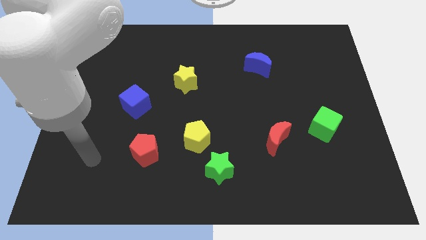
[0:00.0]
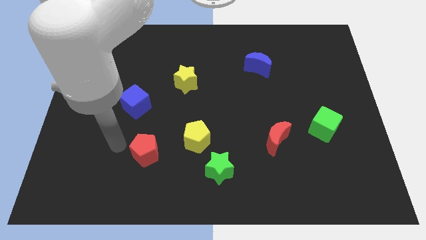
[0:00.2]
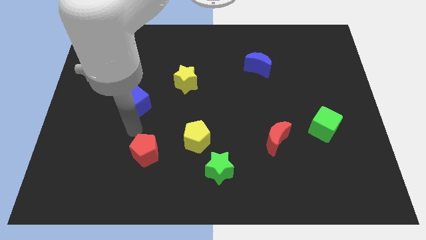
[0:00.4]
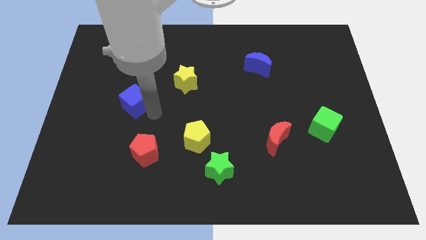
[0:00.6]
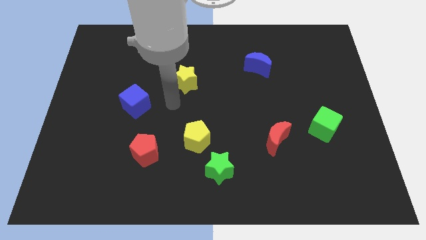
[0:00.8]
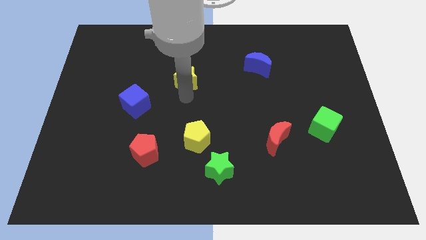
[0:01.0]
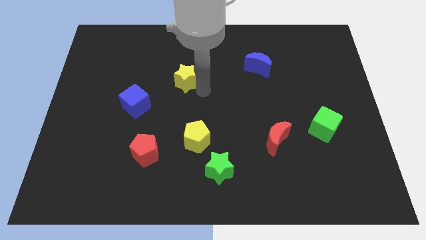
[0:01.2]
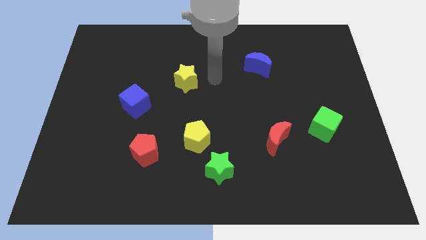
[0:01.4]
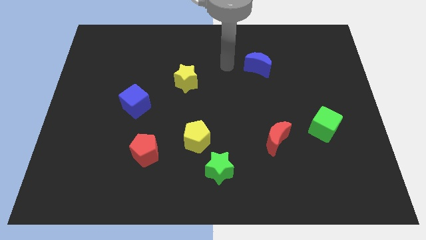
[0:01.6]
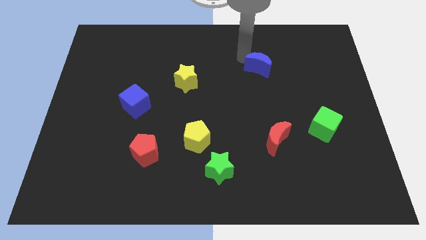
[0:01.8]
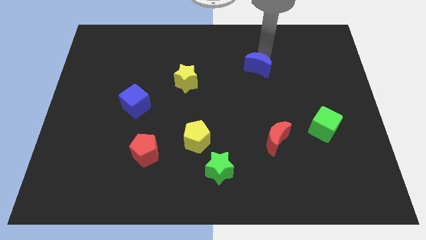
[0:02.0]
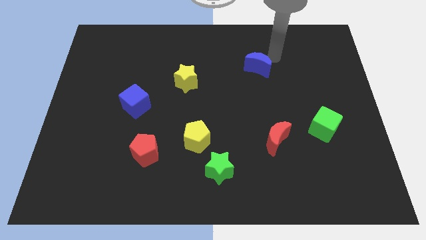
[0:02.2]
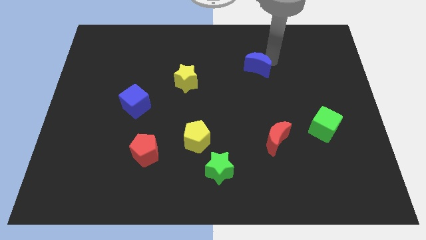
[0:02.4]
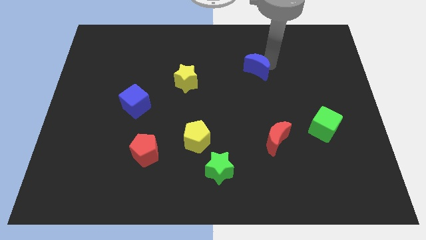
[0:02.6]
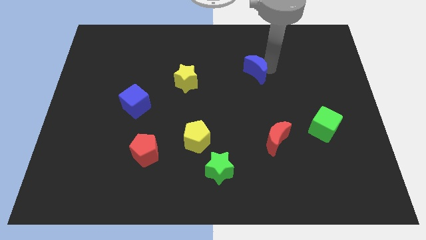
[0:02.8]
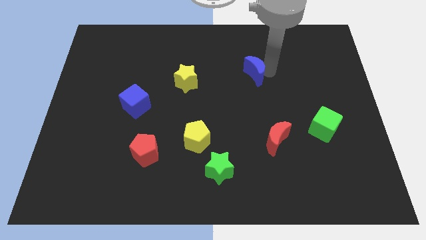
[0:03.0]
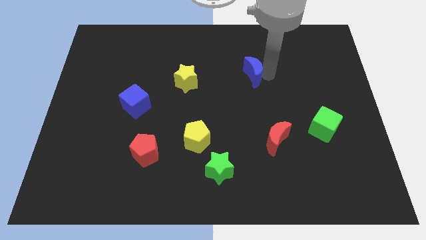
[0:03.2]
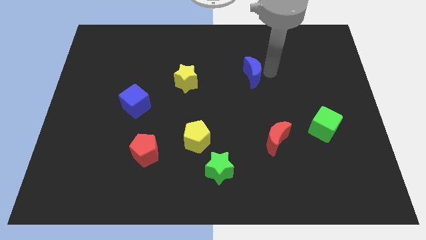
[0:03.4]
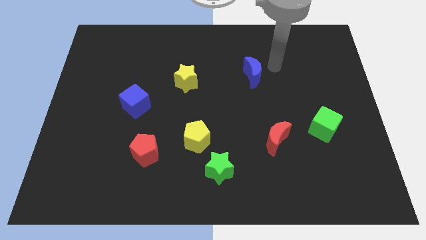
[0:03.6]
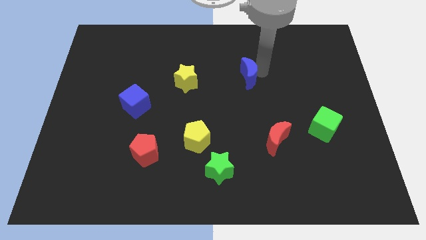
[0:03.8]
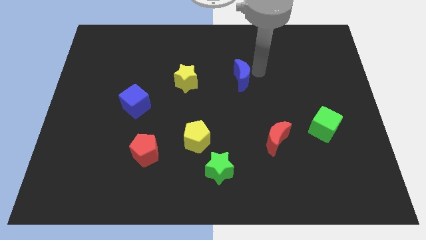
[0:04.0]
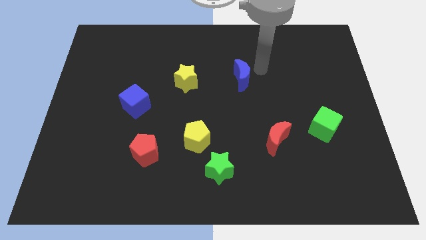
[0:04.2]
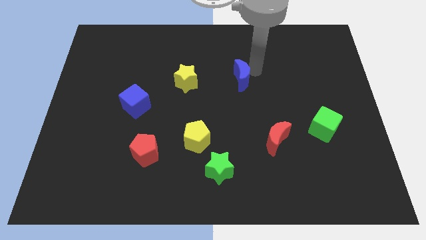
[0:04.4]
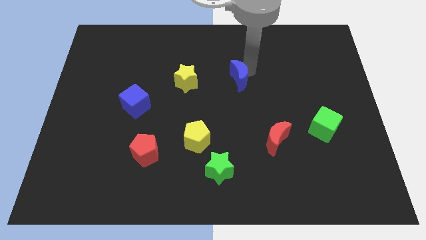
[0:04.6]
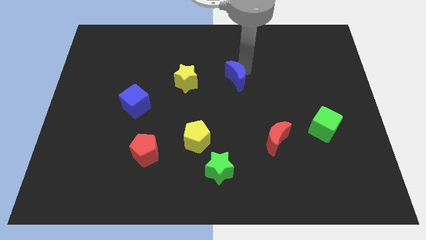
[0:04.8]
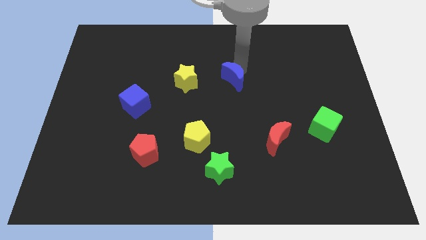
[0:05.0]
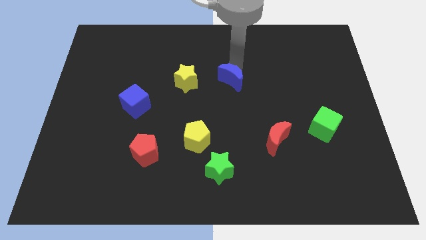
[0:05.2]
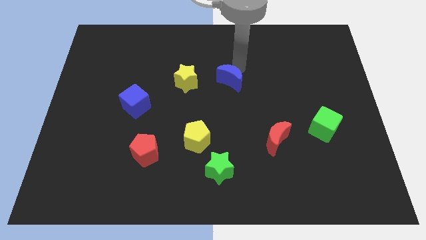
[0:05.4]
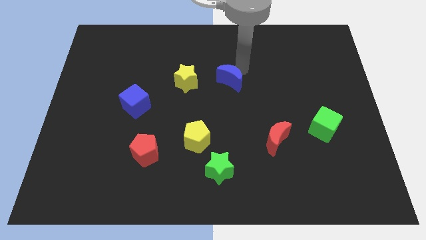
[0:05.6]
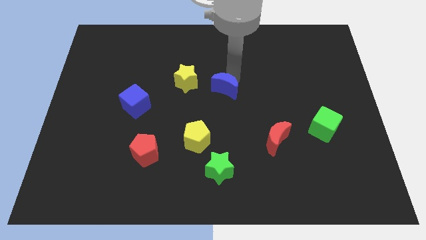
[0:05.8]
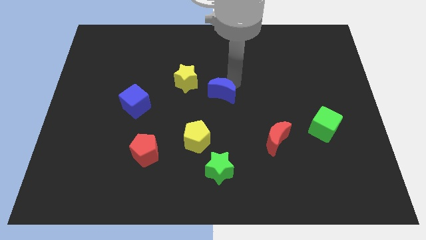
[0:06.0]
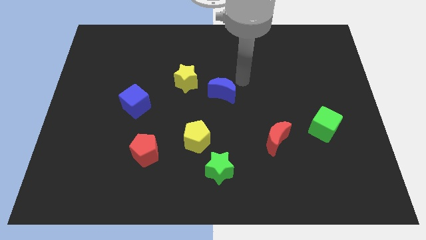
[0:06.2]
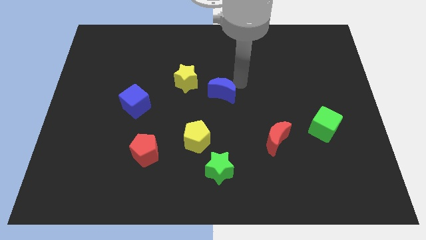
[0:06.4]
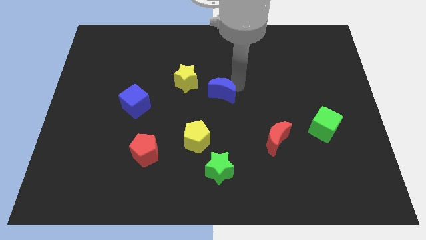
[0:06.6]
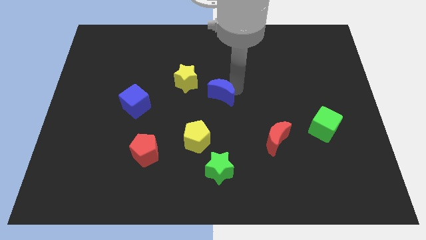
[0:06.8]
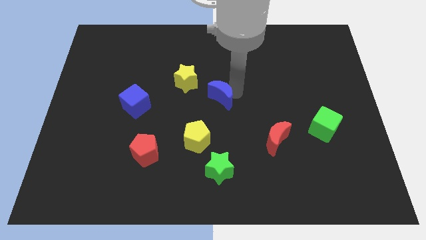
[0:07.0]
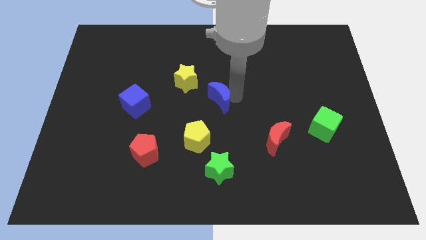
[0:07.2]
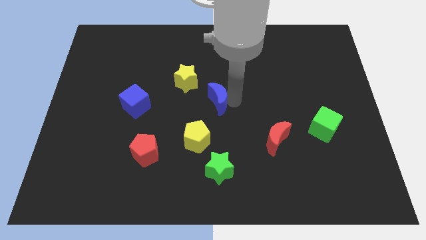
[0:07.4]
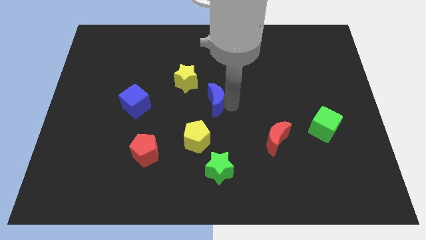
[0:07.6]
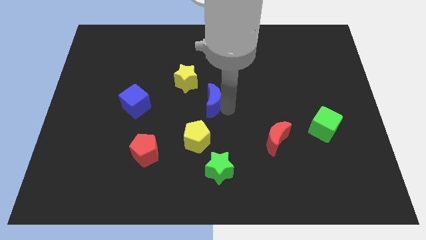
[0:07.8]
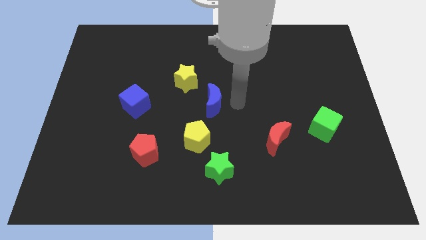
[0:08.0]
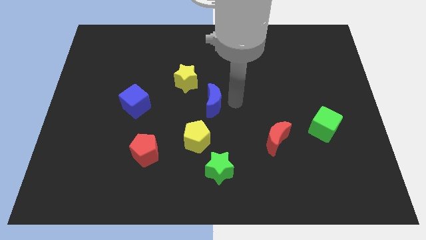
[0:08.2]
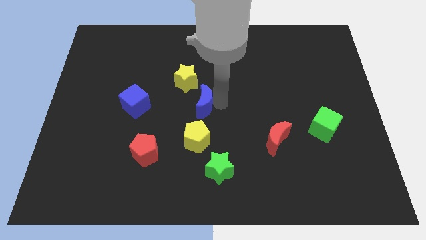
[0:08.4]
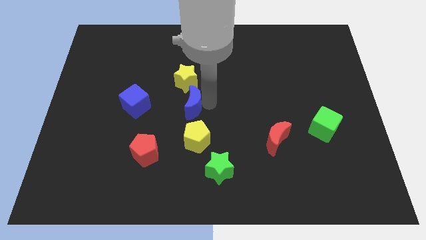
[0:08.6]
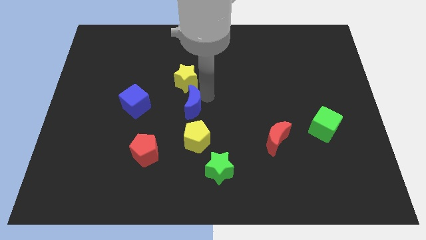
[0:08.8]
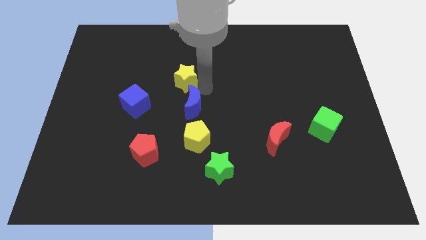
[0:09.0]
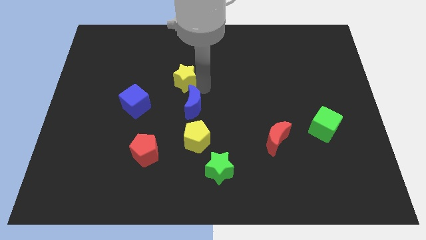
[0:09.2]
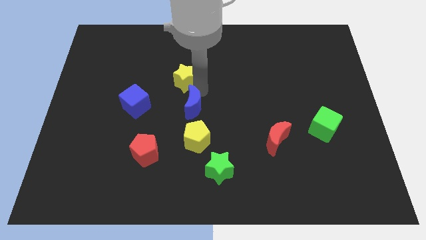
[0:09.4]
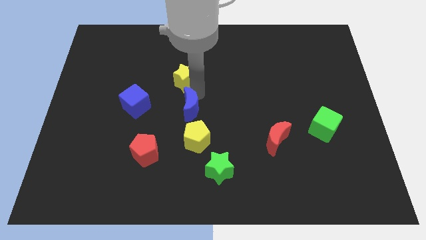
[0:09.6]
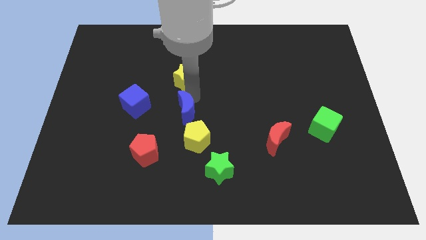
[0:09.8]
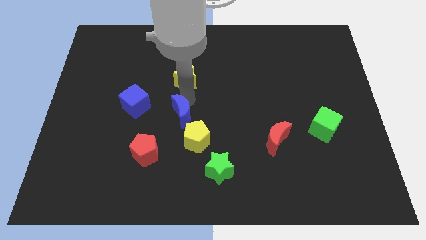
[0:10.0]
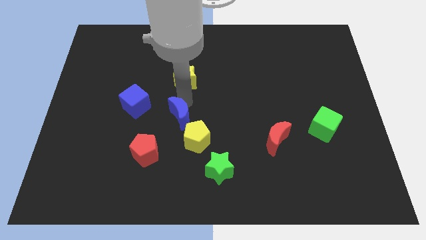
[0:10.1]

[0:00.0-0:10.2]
move the blue moon to the top right side of the red pentagon
